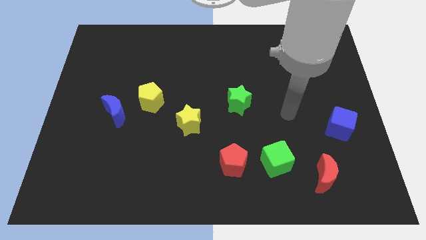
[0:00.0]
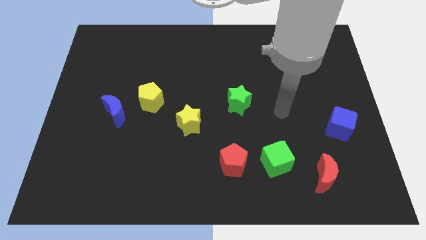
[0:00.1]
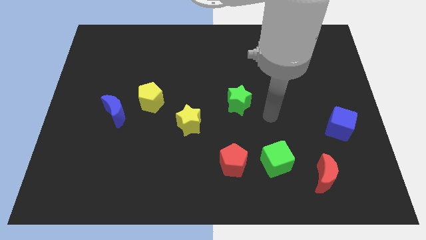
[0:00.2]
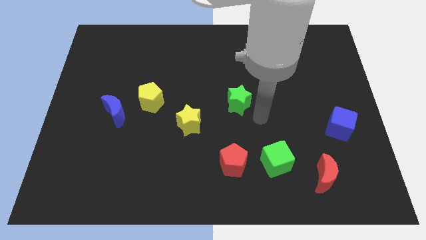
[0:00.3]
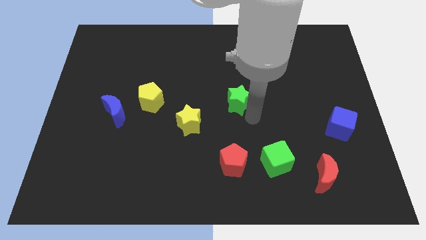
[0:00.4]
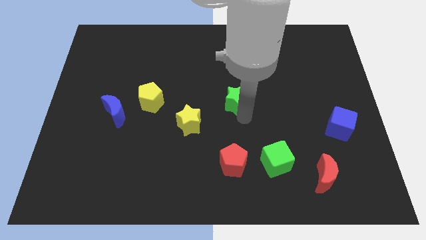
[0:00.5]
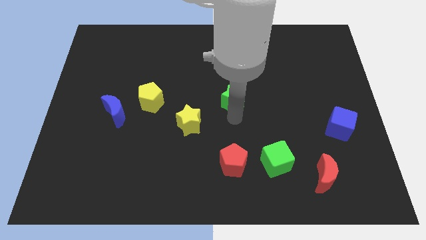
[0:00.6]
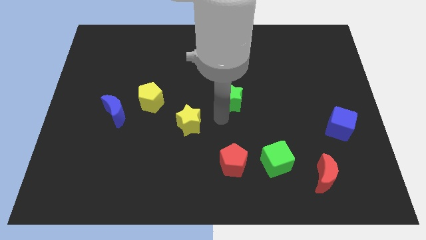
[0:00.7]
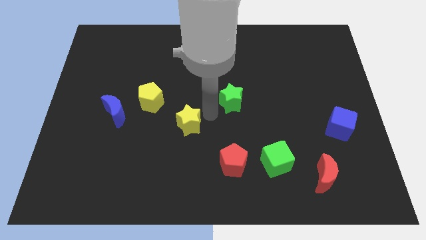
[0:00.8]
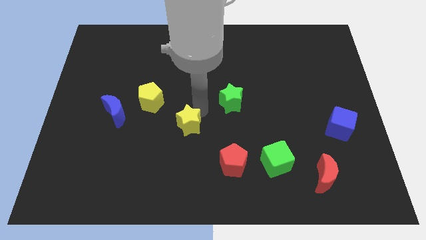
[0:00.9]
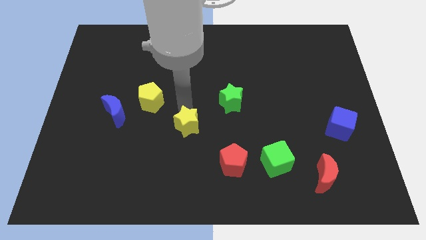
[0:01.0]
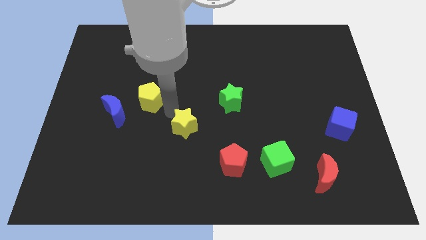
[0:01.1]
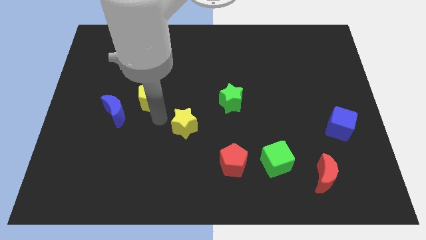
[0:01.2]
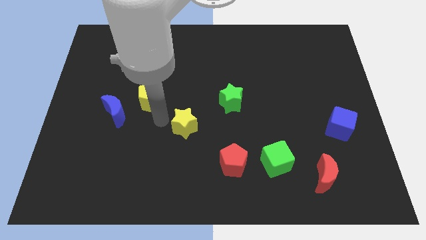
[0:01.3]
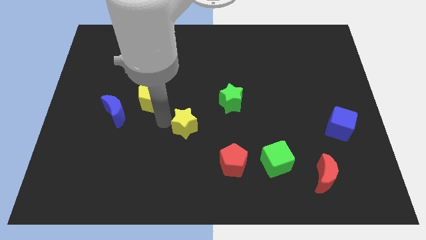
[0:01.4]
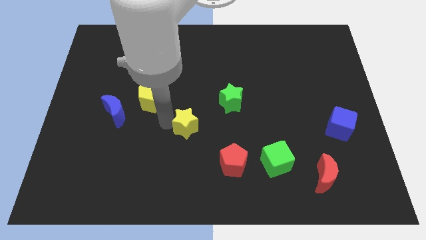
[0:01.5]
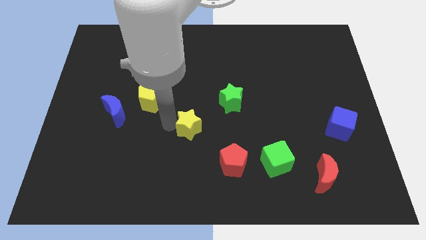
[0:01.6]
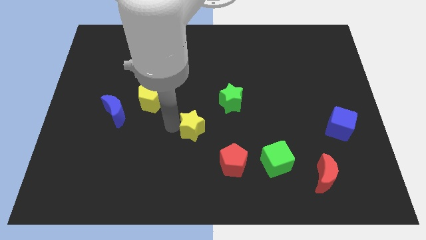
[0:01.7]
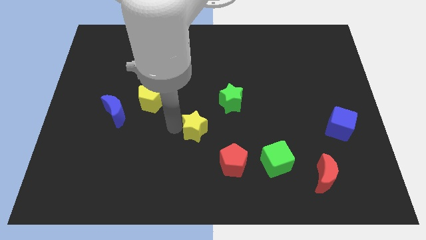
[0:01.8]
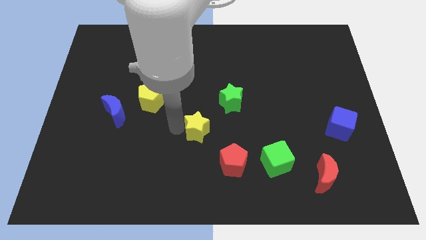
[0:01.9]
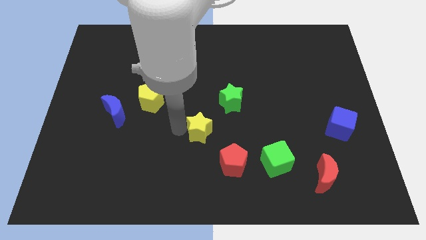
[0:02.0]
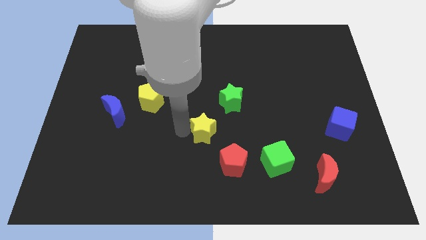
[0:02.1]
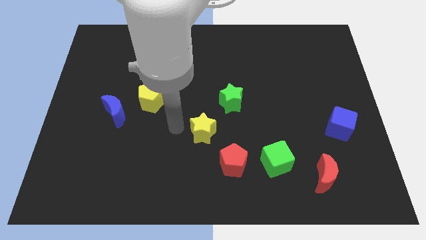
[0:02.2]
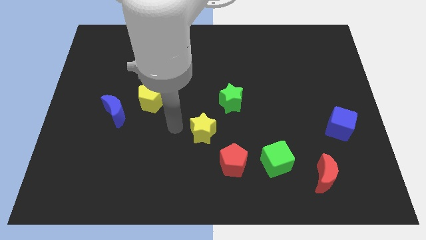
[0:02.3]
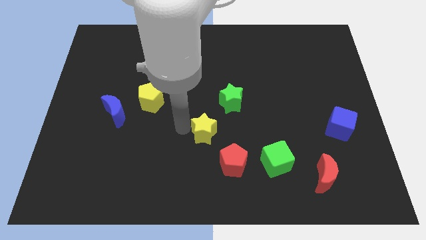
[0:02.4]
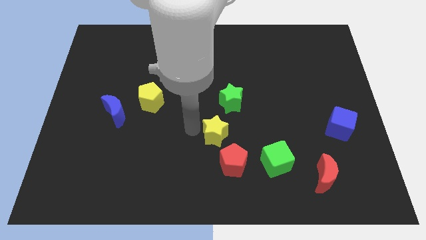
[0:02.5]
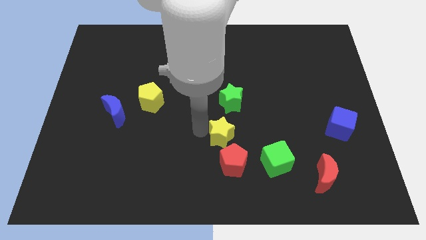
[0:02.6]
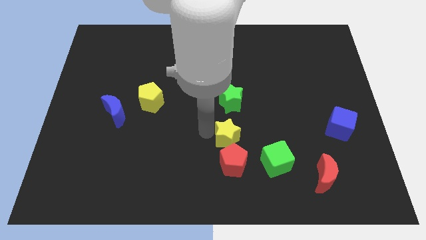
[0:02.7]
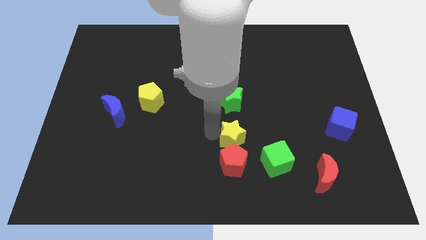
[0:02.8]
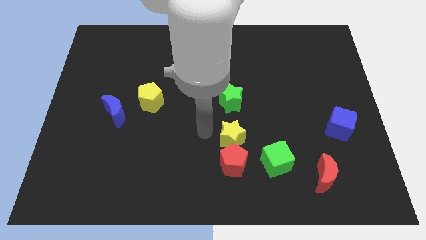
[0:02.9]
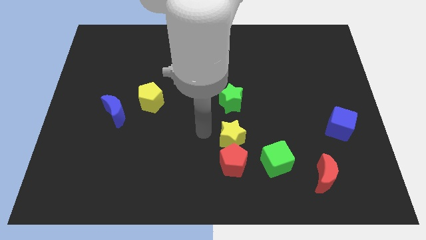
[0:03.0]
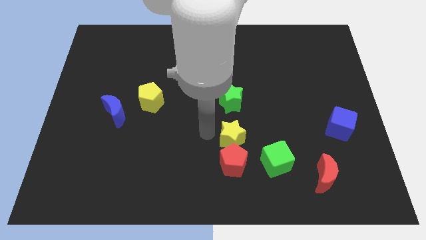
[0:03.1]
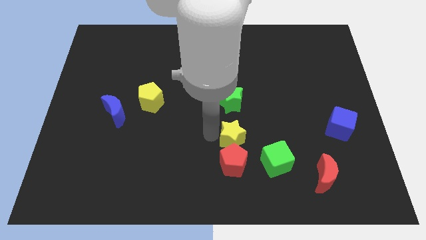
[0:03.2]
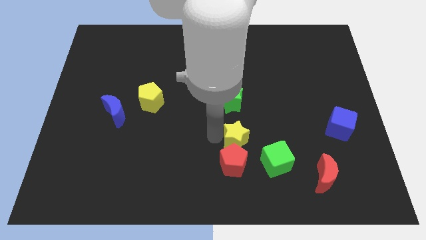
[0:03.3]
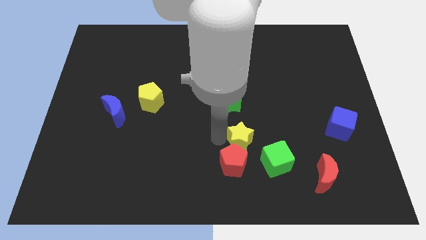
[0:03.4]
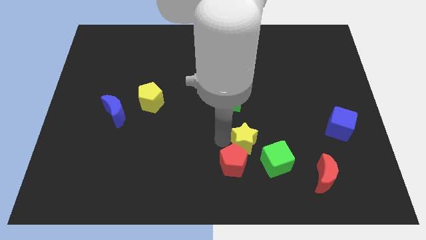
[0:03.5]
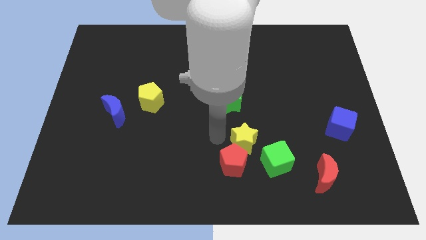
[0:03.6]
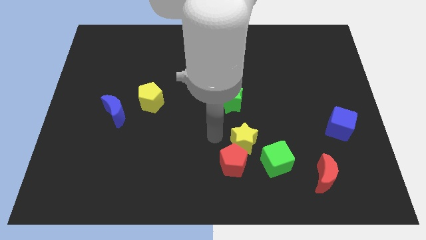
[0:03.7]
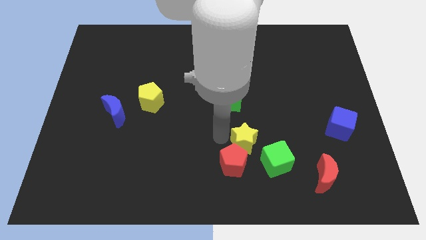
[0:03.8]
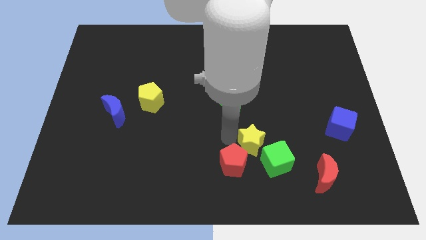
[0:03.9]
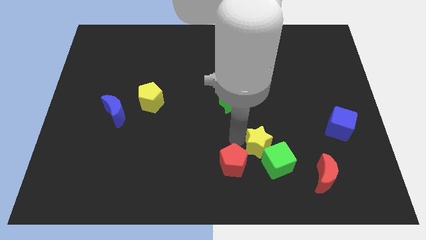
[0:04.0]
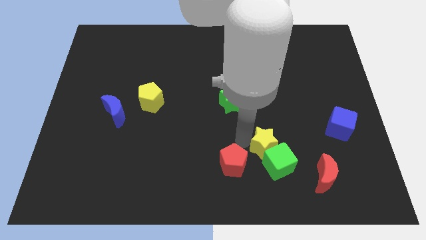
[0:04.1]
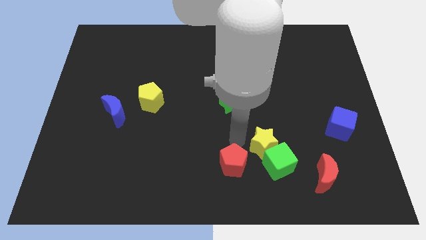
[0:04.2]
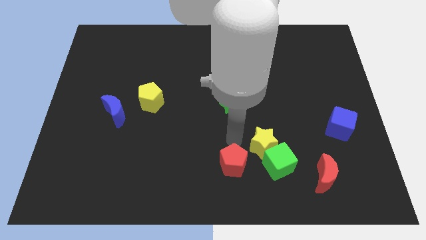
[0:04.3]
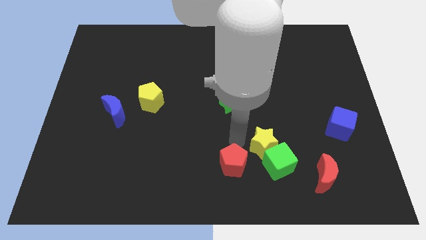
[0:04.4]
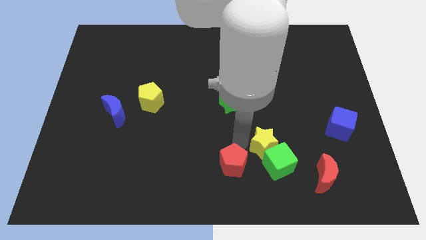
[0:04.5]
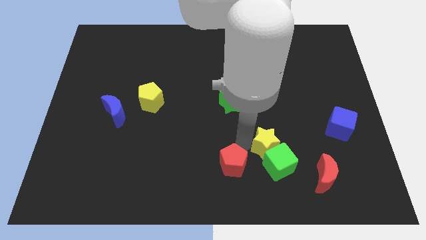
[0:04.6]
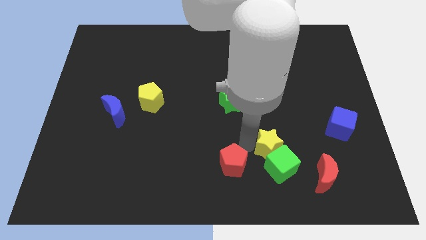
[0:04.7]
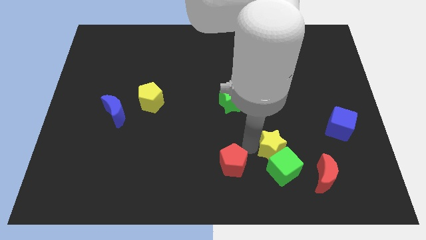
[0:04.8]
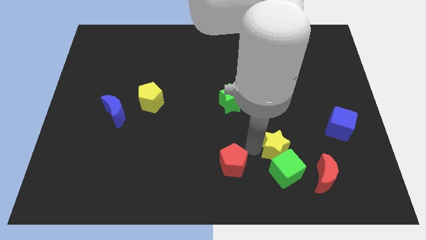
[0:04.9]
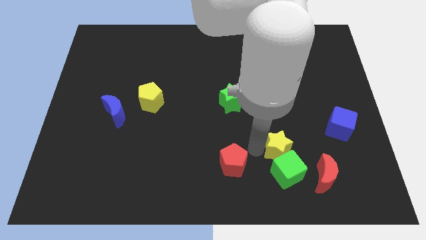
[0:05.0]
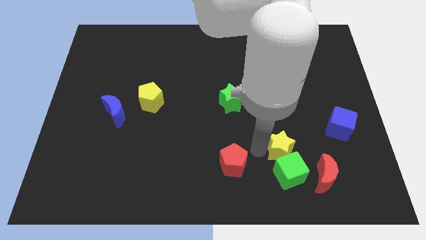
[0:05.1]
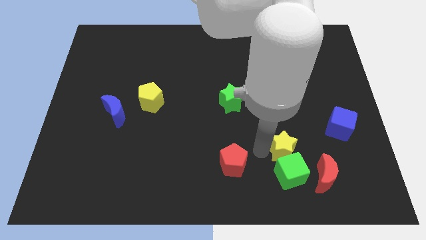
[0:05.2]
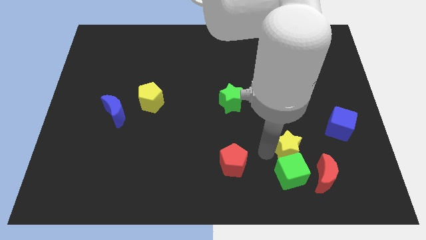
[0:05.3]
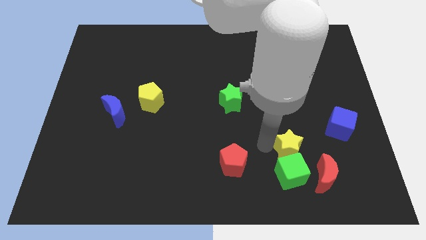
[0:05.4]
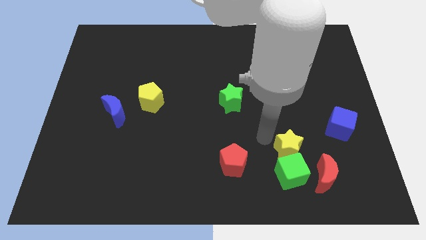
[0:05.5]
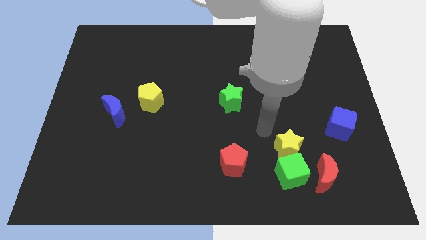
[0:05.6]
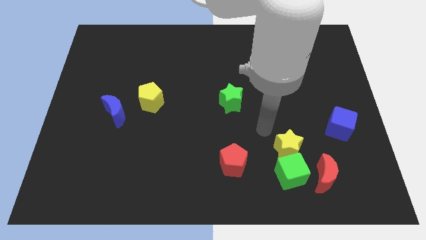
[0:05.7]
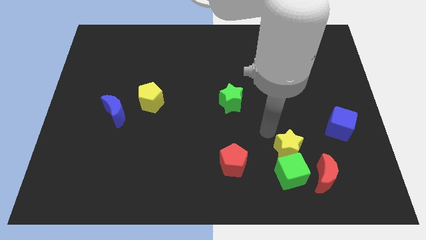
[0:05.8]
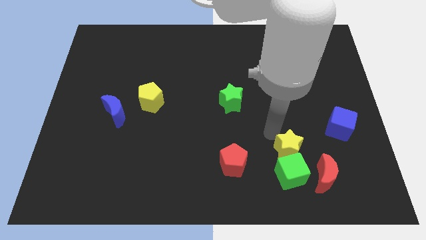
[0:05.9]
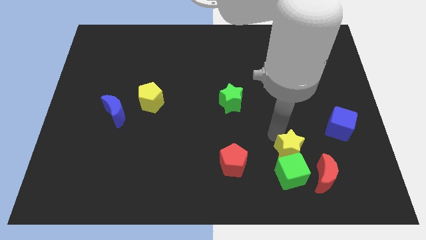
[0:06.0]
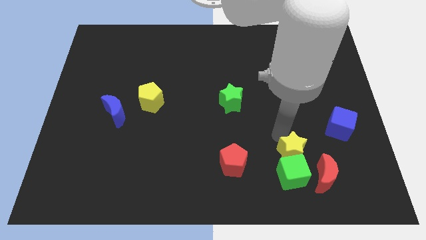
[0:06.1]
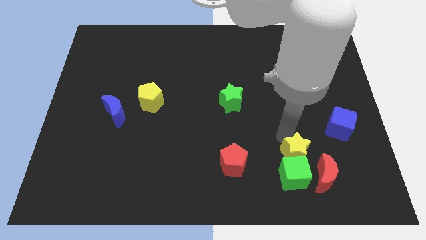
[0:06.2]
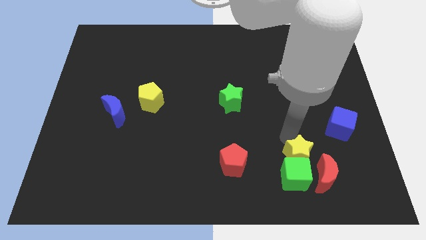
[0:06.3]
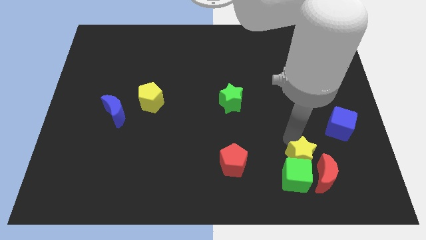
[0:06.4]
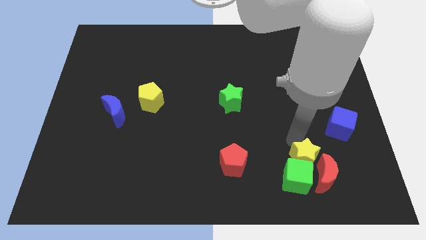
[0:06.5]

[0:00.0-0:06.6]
push the yellow star next to the red moon
